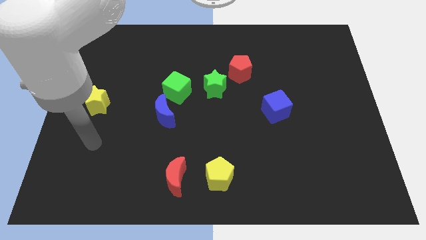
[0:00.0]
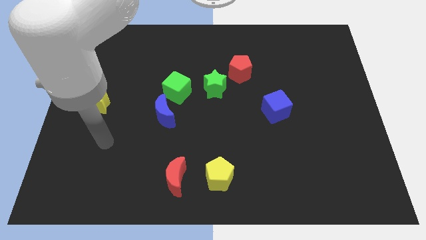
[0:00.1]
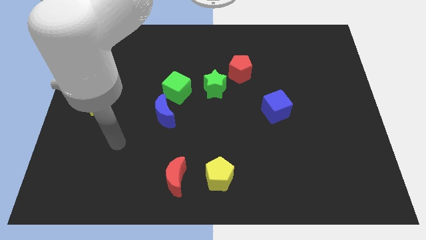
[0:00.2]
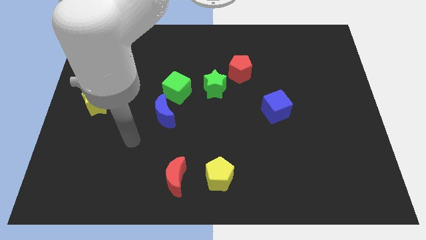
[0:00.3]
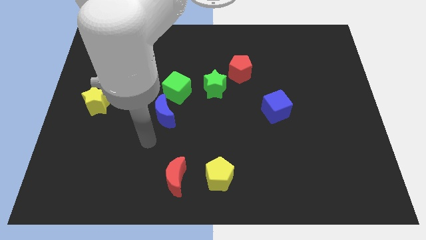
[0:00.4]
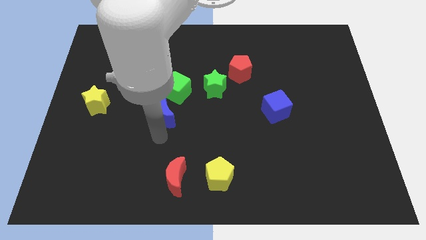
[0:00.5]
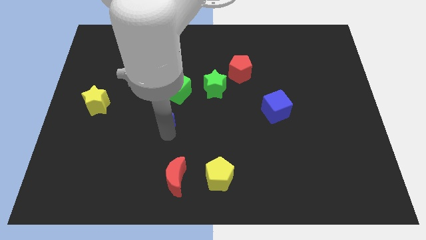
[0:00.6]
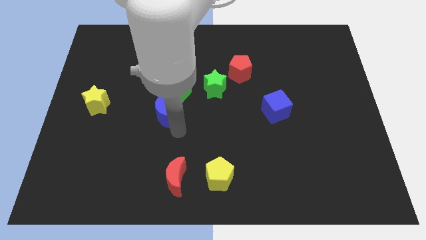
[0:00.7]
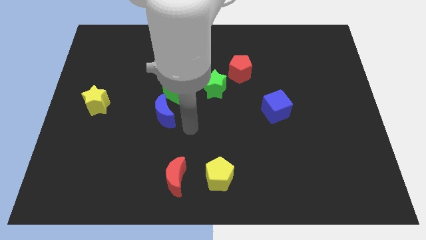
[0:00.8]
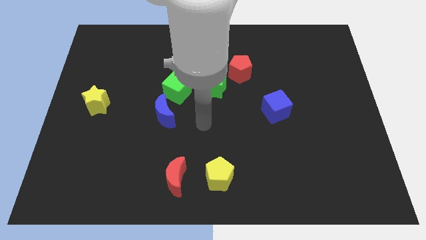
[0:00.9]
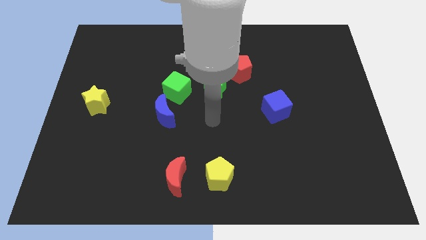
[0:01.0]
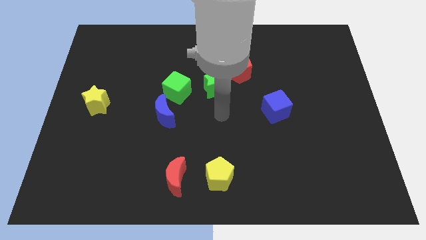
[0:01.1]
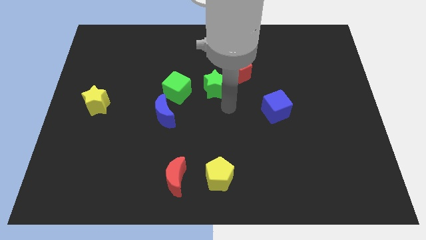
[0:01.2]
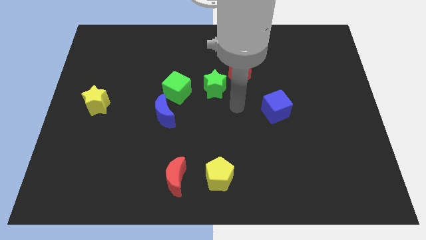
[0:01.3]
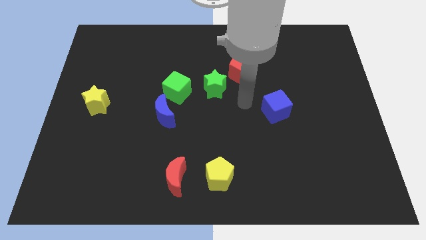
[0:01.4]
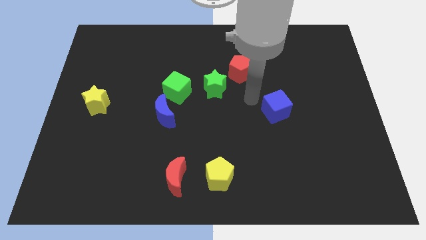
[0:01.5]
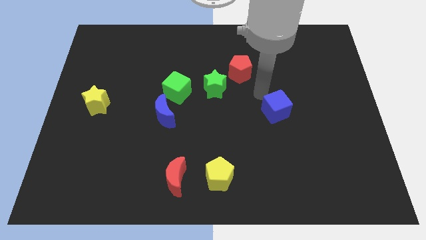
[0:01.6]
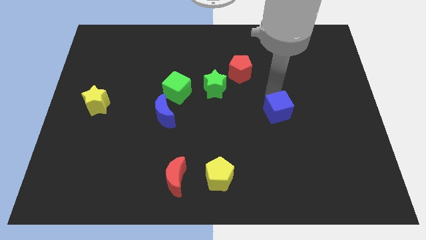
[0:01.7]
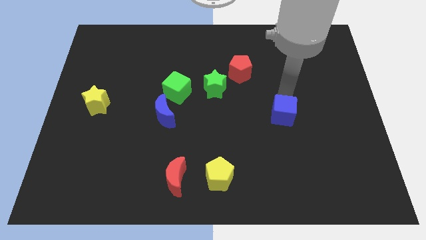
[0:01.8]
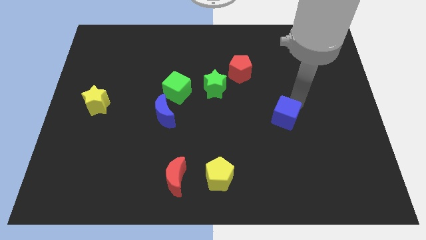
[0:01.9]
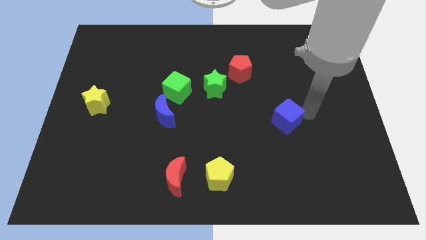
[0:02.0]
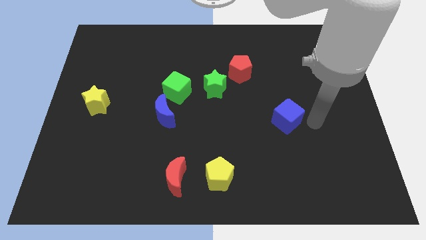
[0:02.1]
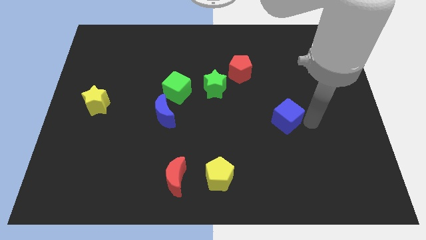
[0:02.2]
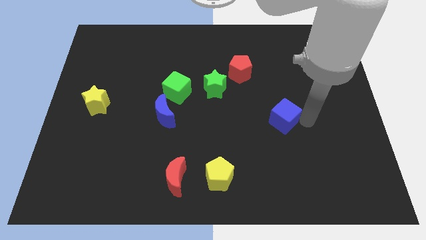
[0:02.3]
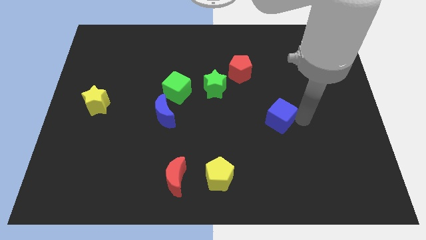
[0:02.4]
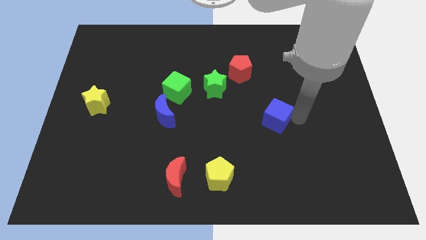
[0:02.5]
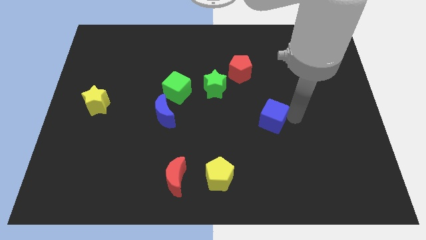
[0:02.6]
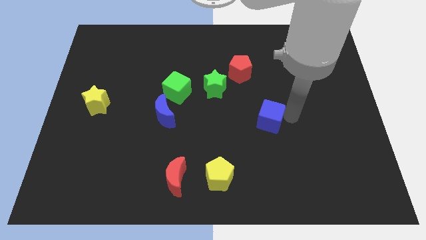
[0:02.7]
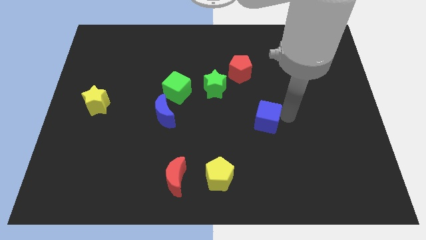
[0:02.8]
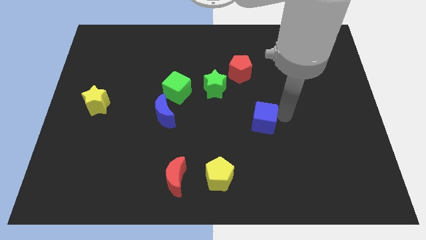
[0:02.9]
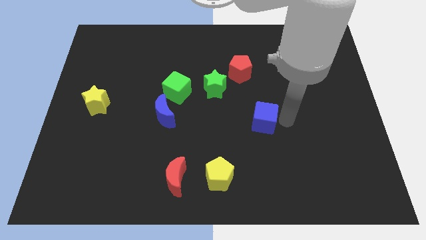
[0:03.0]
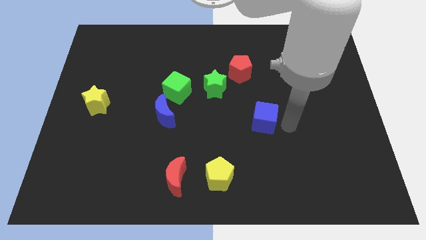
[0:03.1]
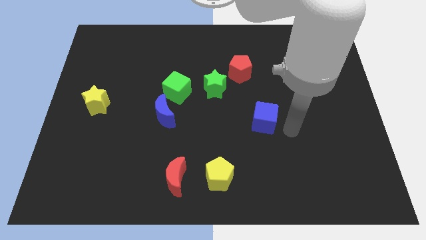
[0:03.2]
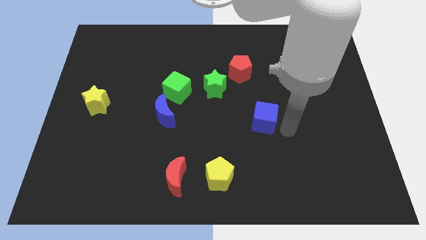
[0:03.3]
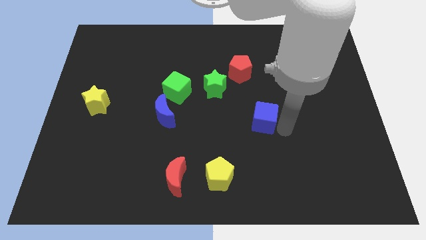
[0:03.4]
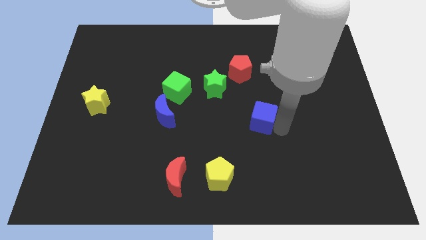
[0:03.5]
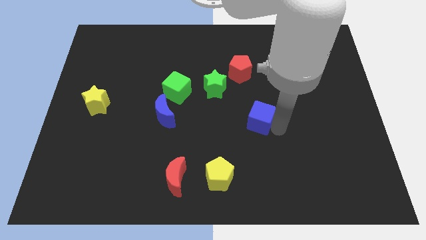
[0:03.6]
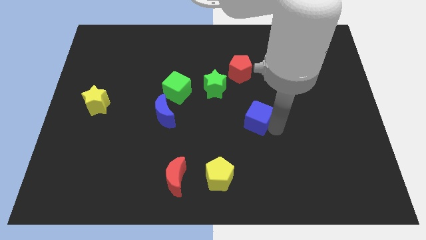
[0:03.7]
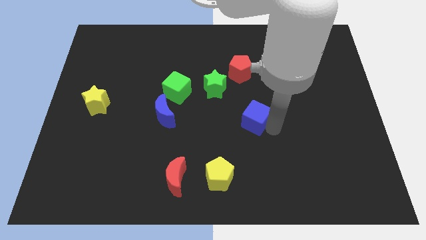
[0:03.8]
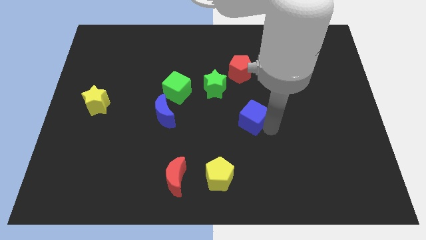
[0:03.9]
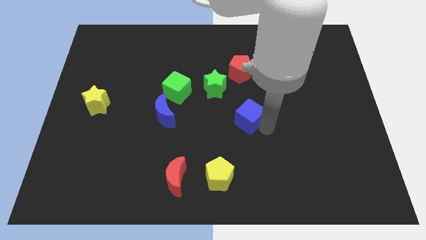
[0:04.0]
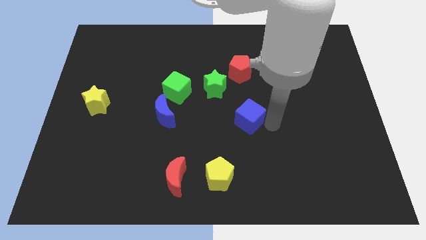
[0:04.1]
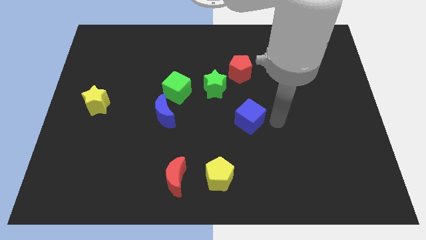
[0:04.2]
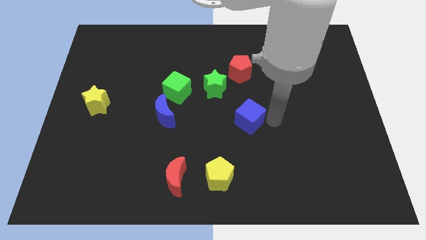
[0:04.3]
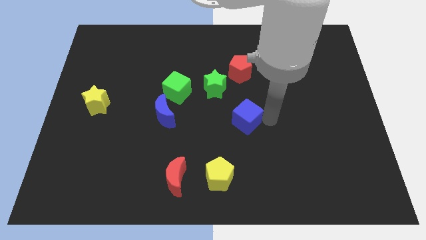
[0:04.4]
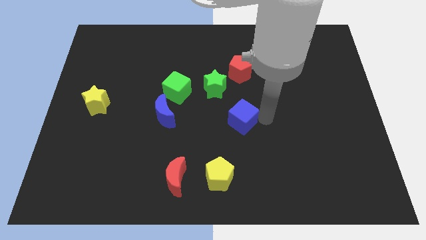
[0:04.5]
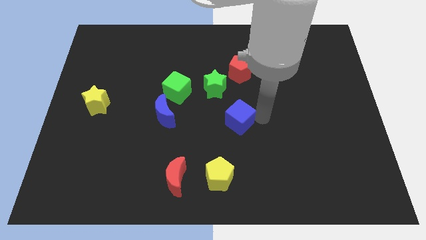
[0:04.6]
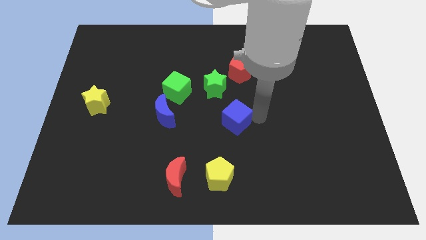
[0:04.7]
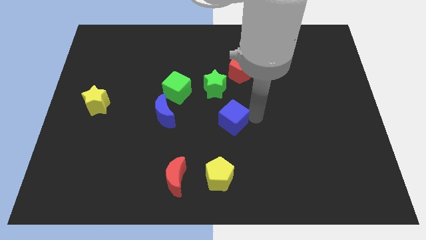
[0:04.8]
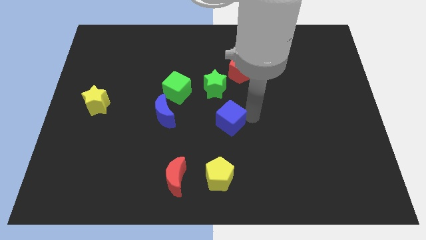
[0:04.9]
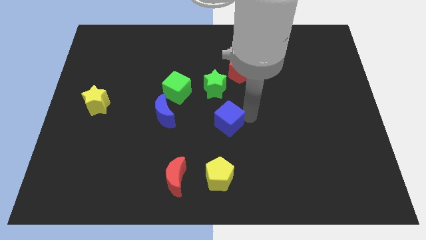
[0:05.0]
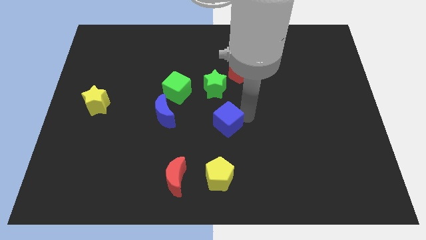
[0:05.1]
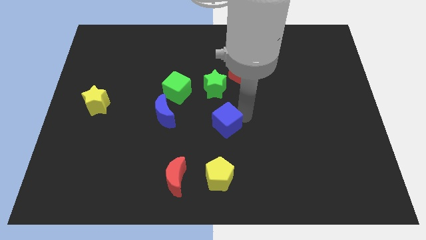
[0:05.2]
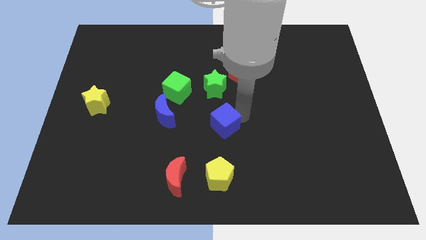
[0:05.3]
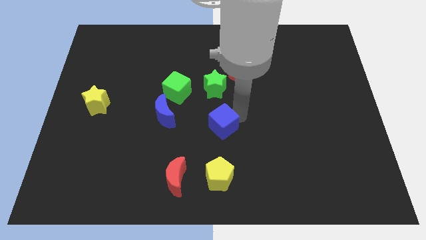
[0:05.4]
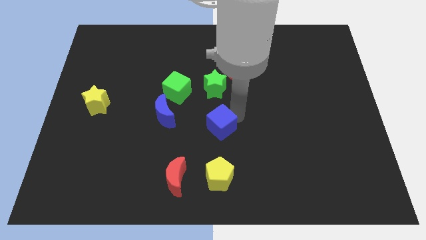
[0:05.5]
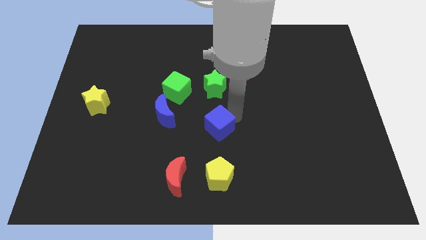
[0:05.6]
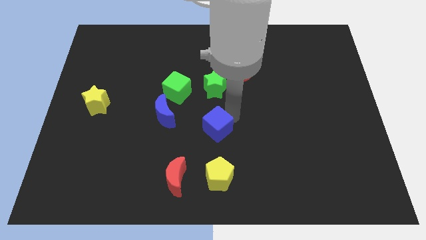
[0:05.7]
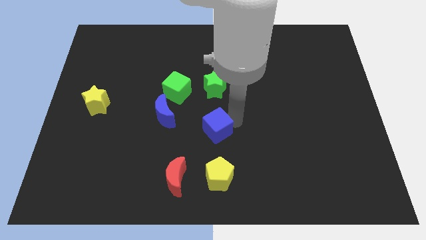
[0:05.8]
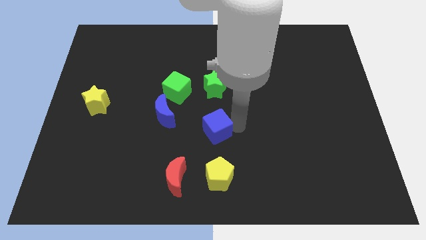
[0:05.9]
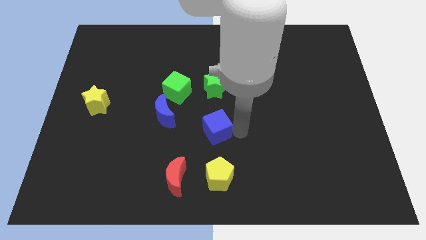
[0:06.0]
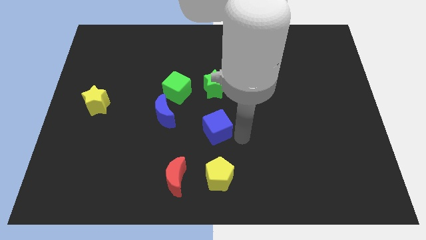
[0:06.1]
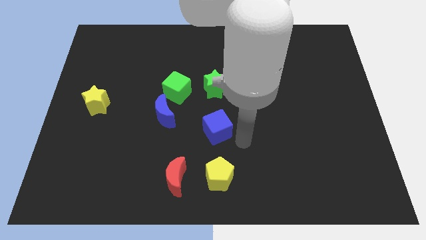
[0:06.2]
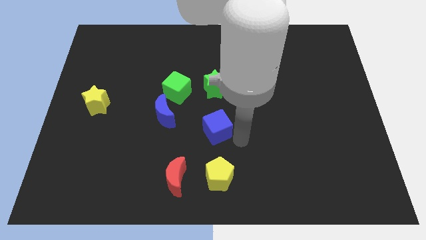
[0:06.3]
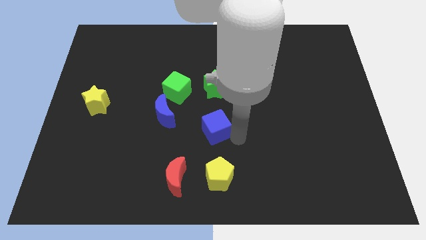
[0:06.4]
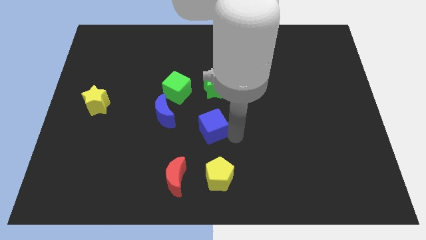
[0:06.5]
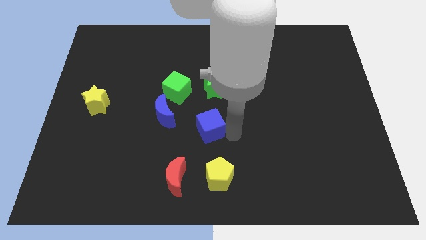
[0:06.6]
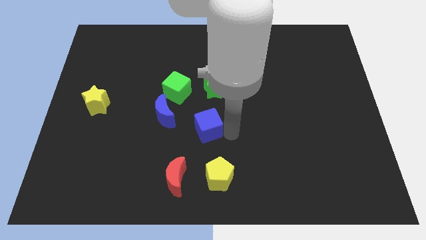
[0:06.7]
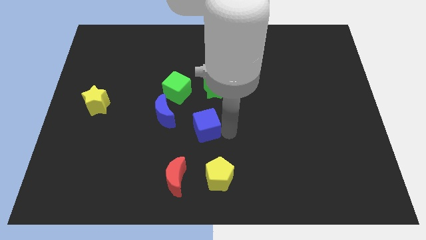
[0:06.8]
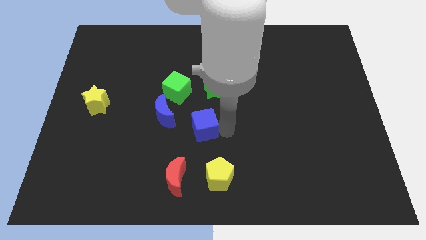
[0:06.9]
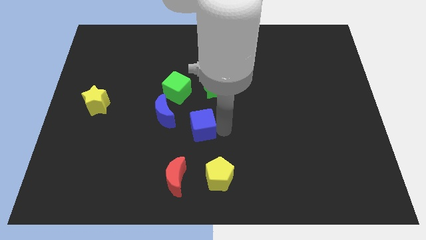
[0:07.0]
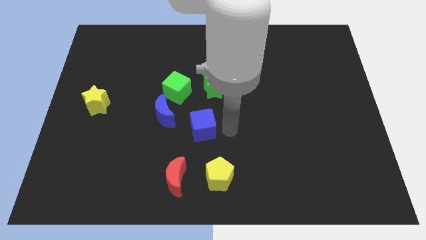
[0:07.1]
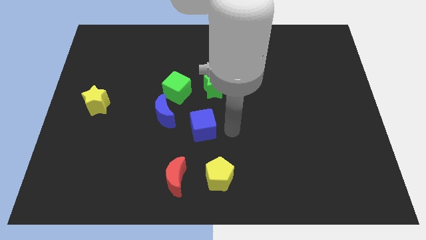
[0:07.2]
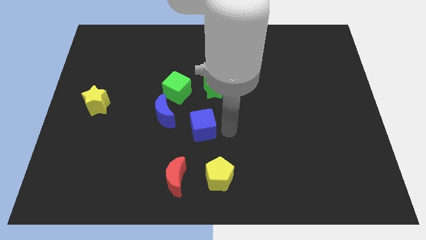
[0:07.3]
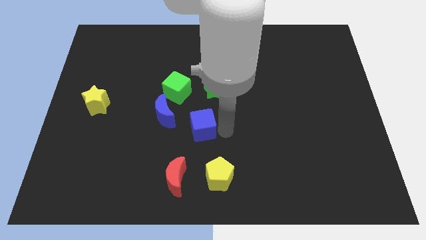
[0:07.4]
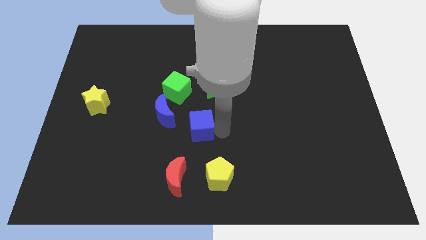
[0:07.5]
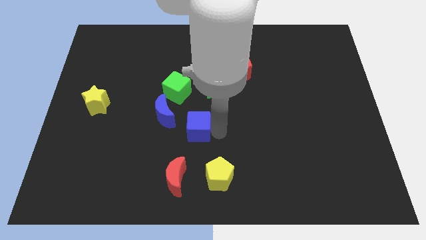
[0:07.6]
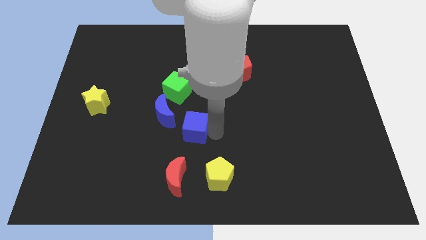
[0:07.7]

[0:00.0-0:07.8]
slide the blue cube to the bottom side of the green cube
